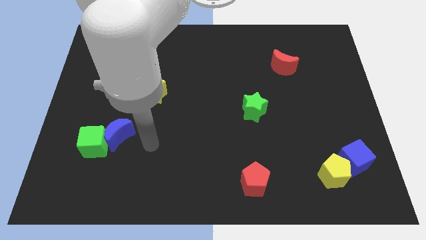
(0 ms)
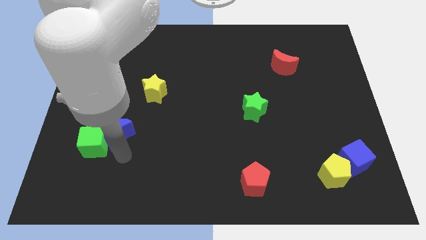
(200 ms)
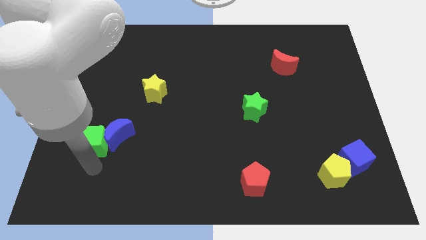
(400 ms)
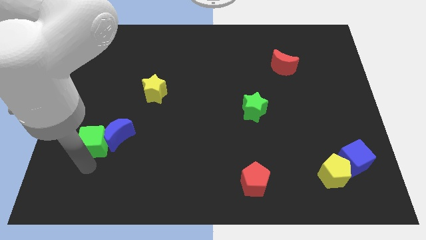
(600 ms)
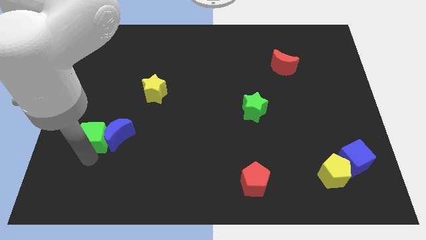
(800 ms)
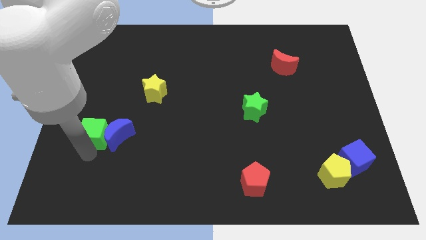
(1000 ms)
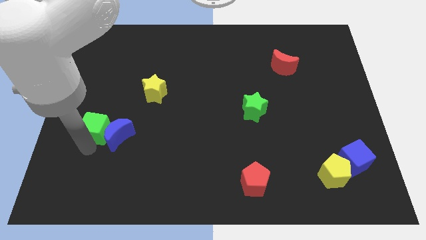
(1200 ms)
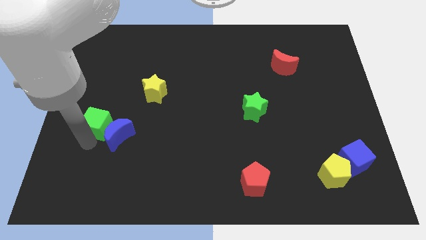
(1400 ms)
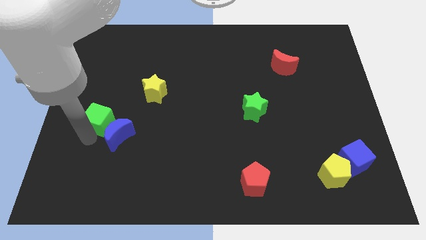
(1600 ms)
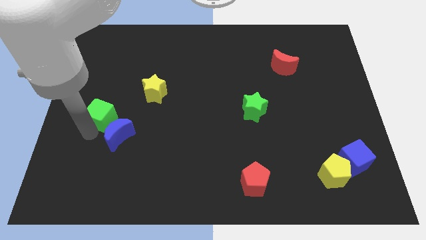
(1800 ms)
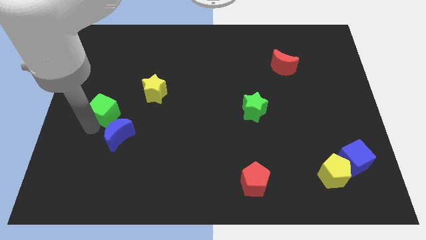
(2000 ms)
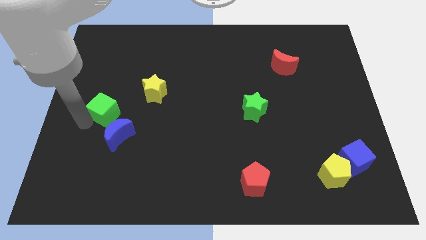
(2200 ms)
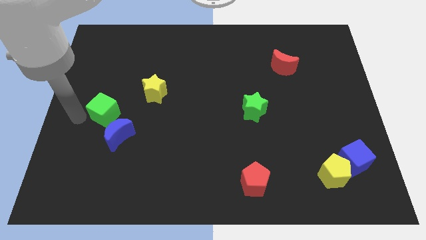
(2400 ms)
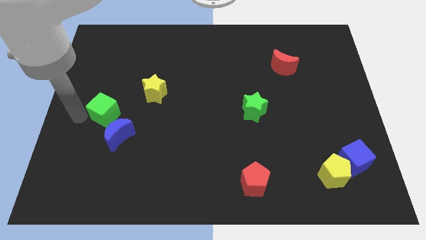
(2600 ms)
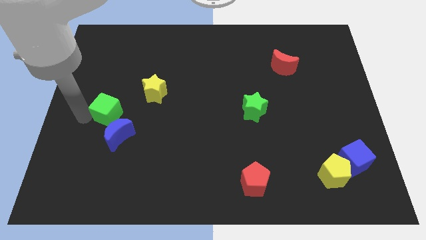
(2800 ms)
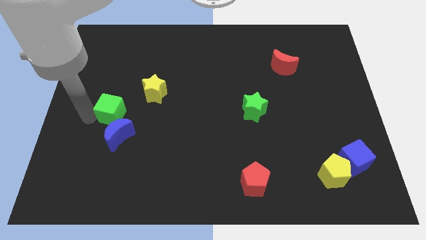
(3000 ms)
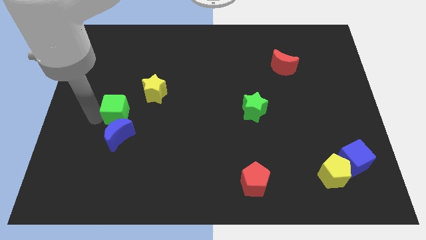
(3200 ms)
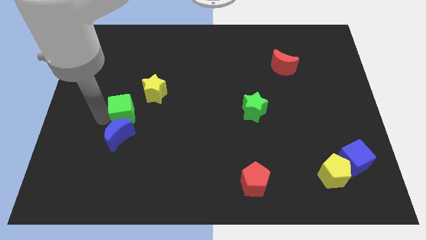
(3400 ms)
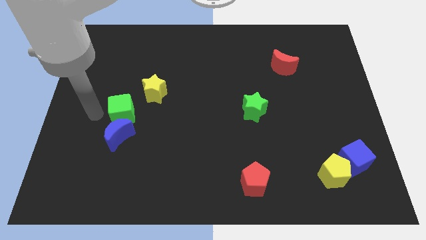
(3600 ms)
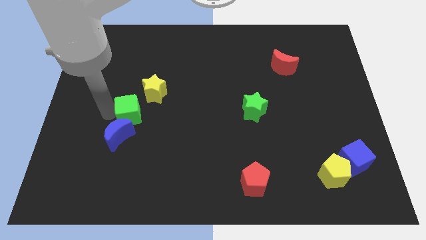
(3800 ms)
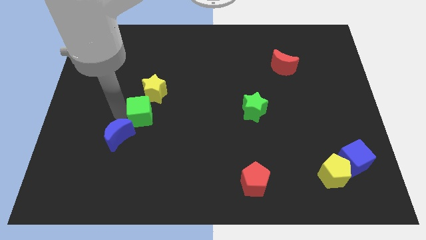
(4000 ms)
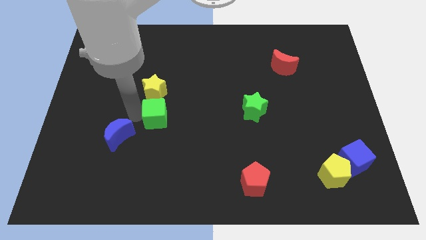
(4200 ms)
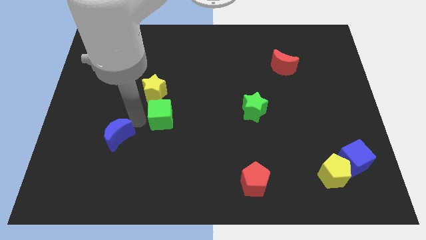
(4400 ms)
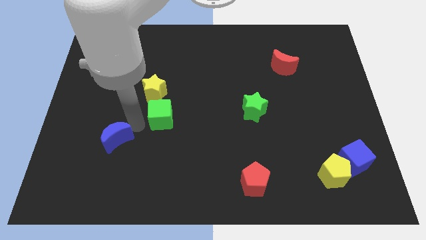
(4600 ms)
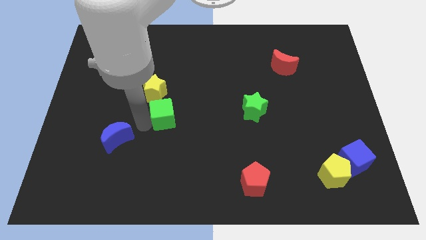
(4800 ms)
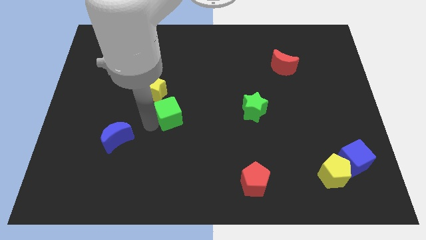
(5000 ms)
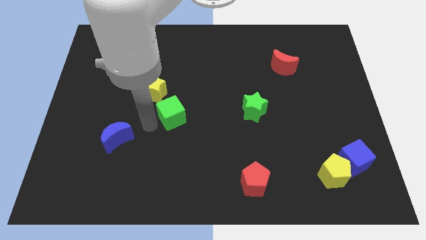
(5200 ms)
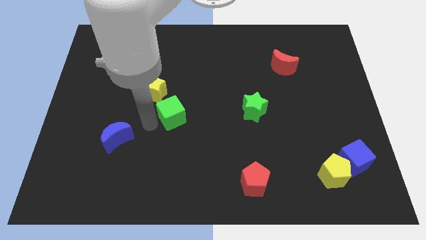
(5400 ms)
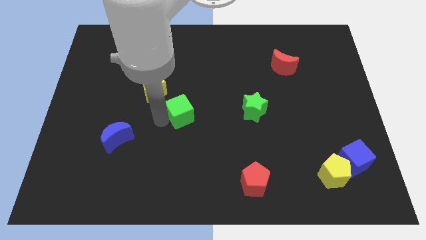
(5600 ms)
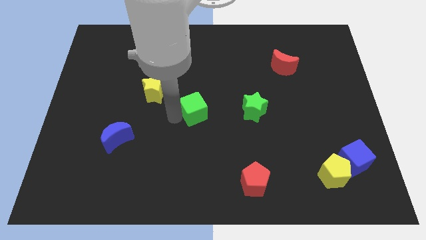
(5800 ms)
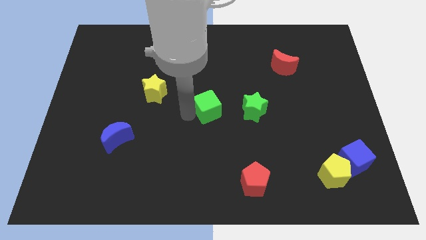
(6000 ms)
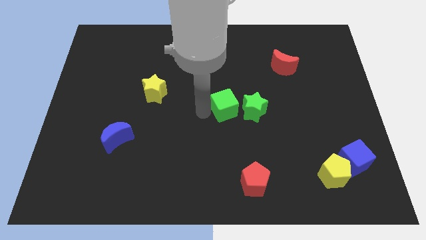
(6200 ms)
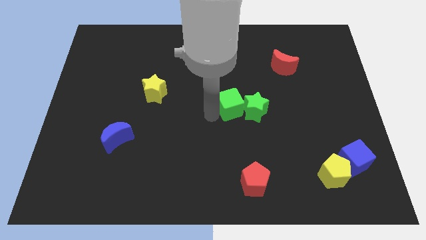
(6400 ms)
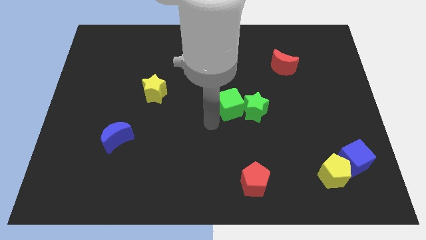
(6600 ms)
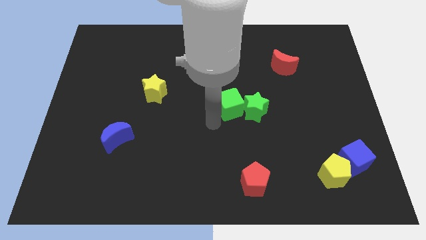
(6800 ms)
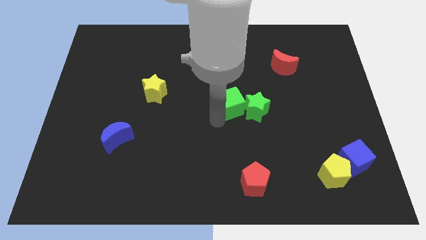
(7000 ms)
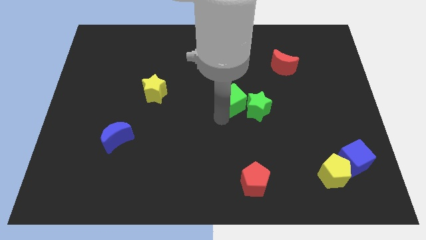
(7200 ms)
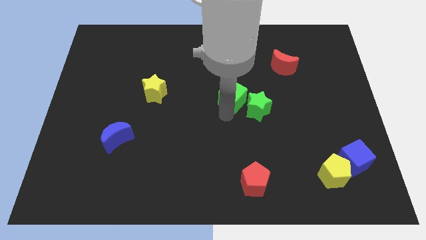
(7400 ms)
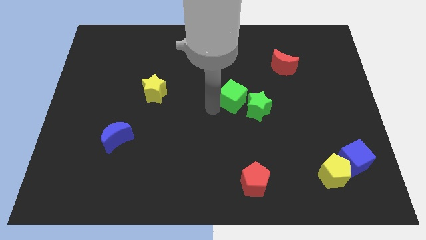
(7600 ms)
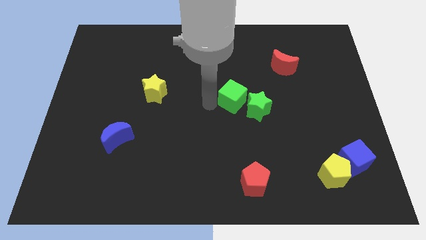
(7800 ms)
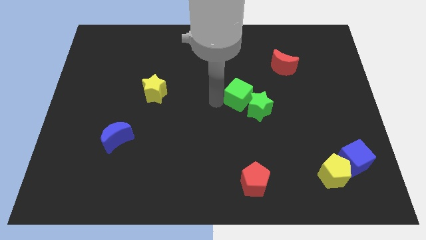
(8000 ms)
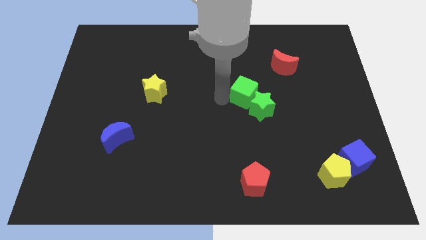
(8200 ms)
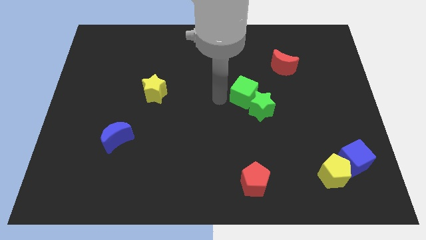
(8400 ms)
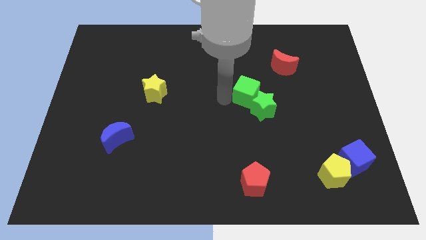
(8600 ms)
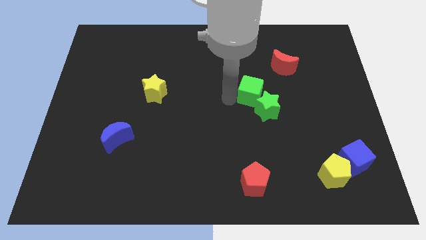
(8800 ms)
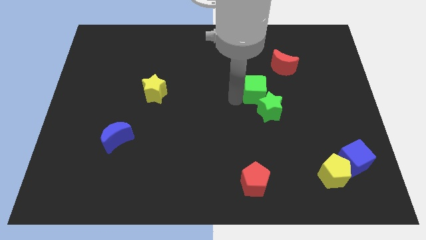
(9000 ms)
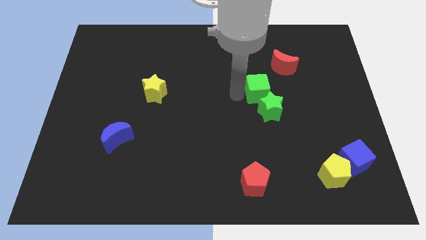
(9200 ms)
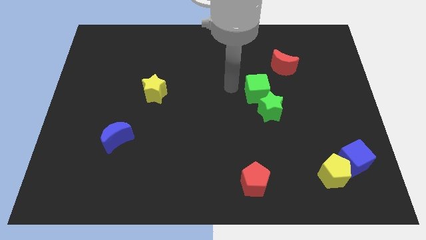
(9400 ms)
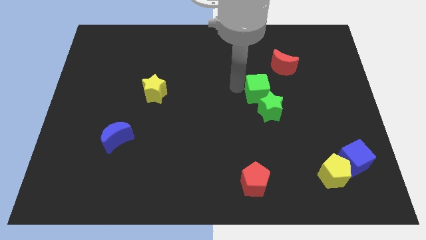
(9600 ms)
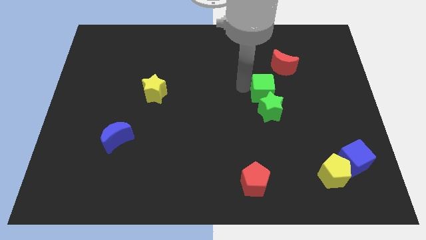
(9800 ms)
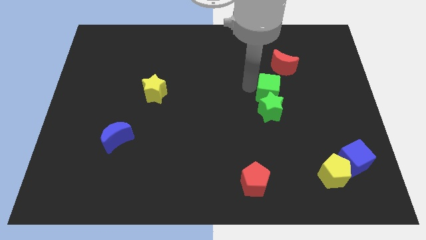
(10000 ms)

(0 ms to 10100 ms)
put the green cube to the bottom of the red moon

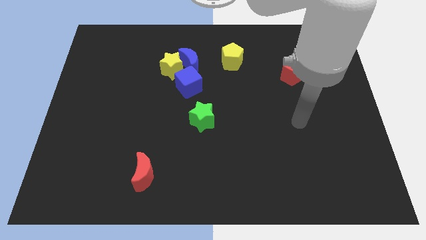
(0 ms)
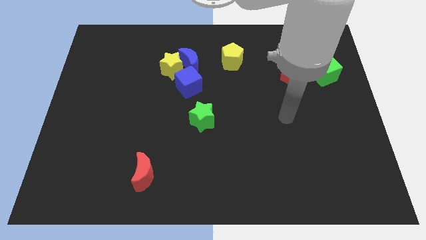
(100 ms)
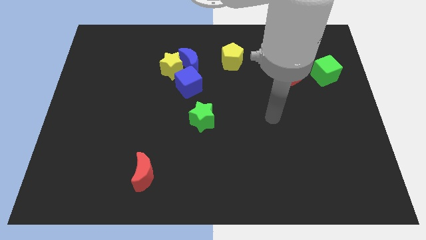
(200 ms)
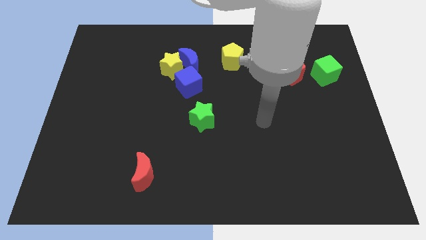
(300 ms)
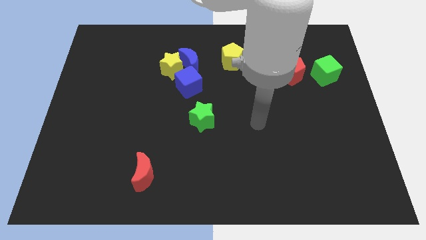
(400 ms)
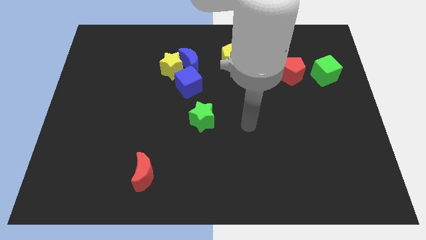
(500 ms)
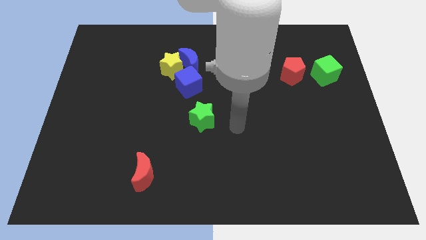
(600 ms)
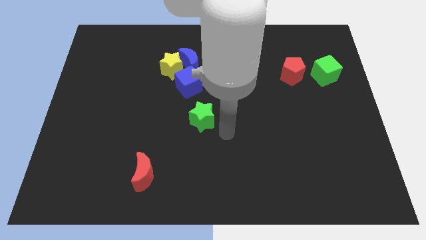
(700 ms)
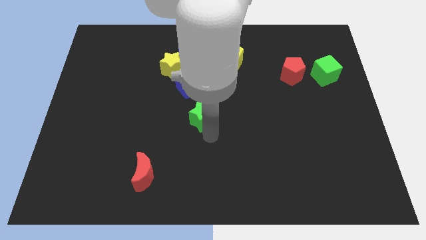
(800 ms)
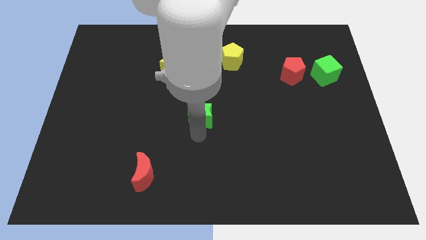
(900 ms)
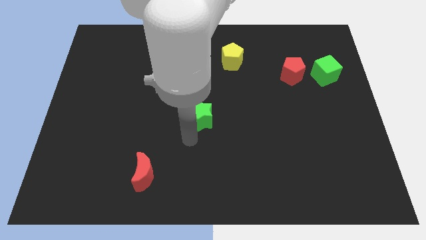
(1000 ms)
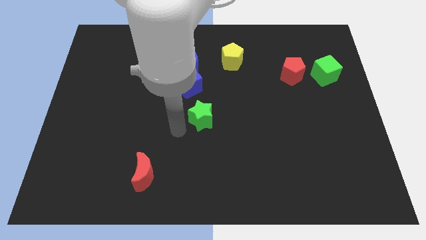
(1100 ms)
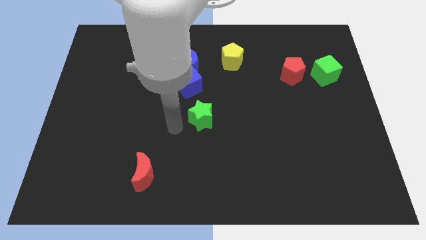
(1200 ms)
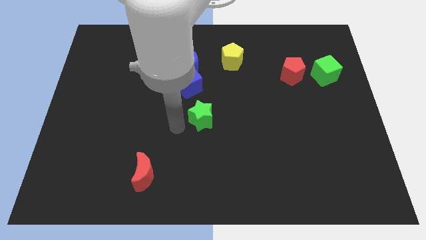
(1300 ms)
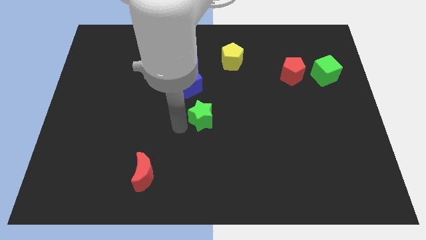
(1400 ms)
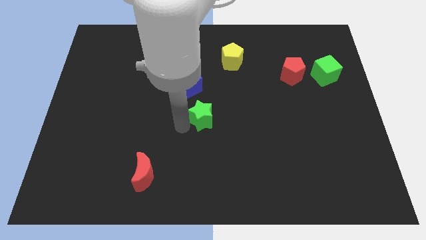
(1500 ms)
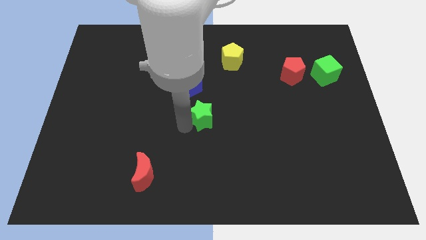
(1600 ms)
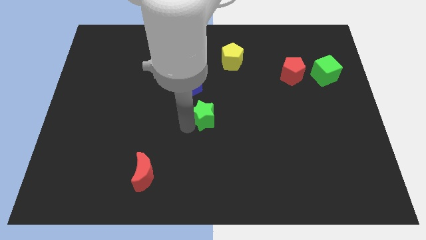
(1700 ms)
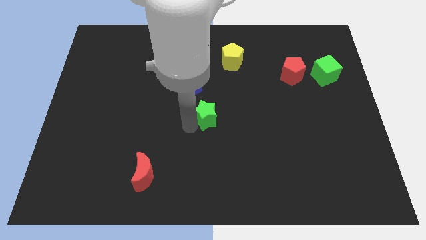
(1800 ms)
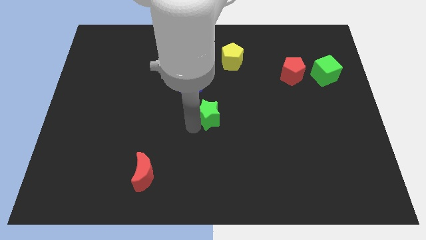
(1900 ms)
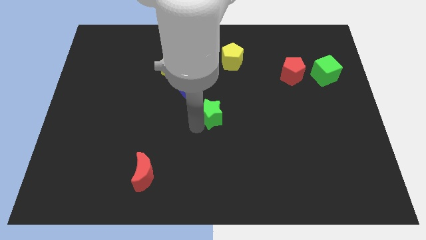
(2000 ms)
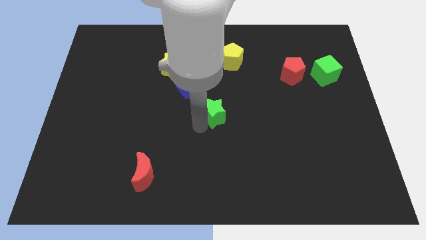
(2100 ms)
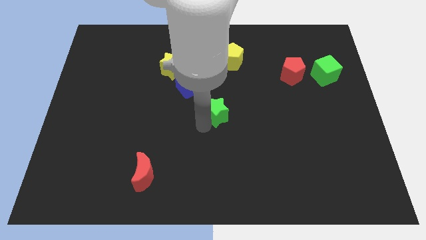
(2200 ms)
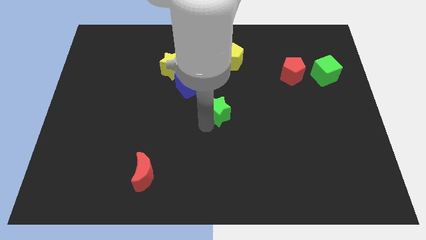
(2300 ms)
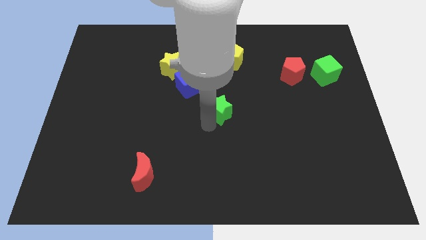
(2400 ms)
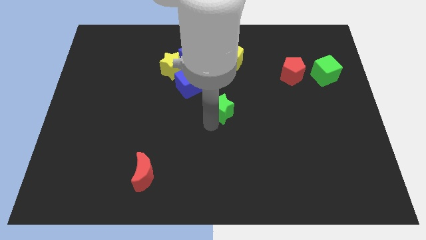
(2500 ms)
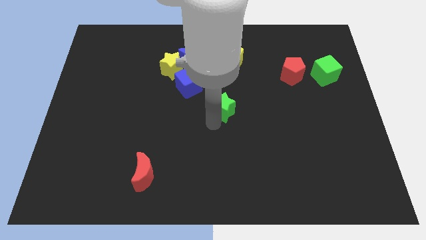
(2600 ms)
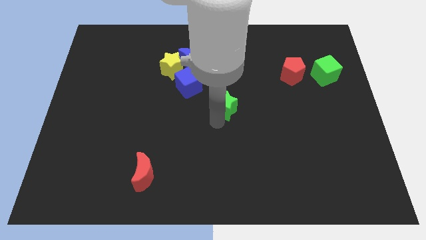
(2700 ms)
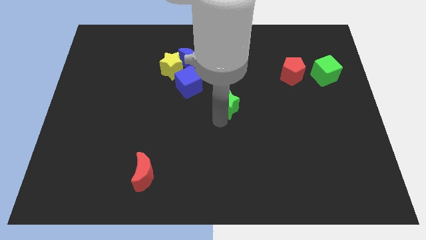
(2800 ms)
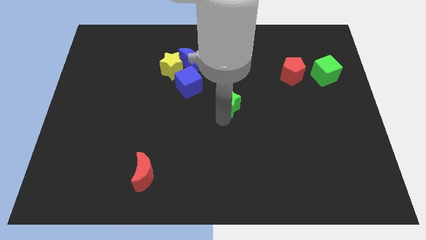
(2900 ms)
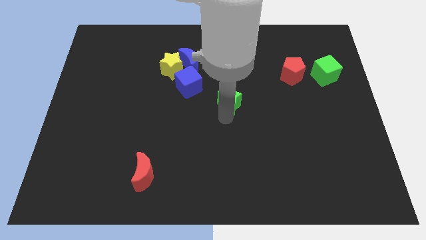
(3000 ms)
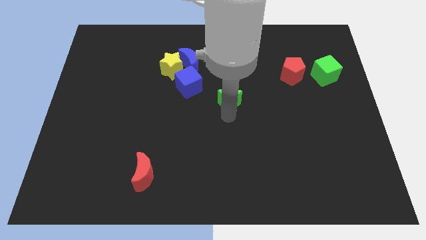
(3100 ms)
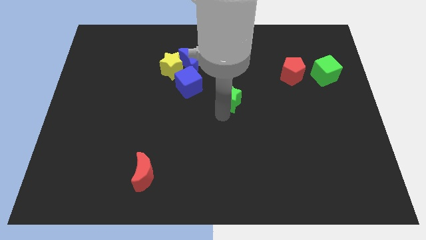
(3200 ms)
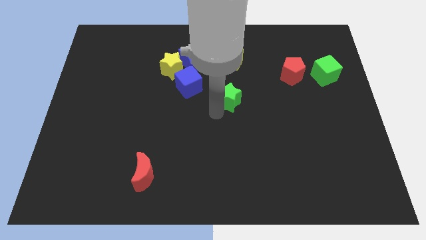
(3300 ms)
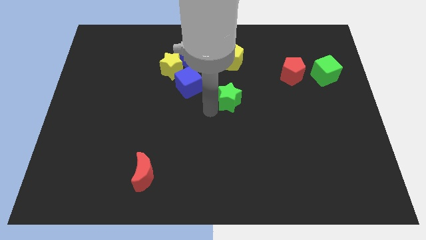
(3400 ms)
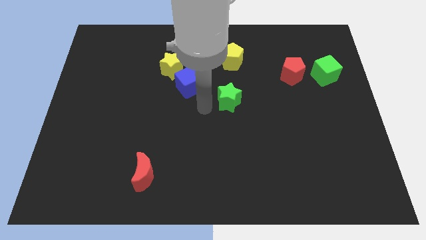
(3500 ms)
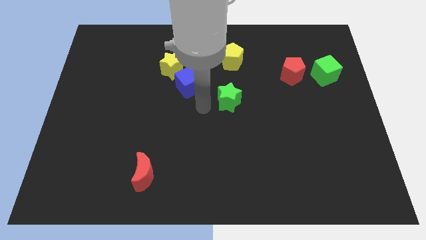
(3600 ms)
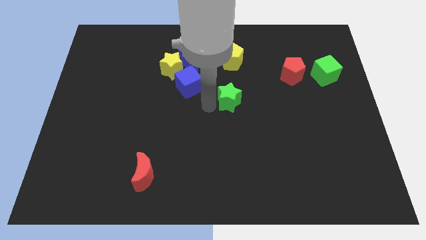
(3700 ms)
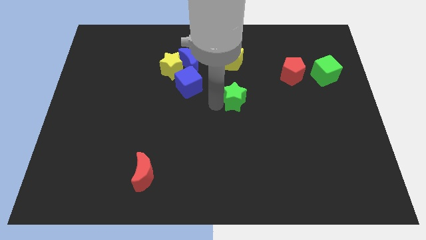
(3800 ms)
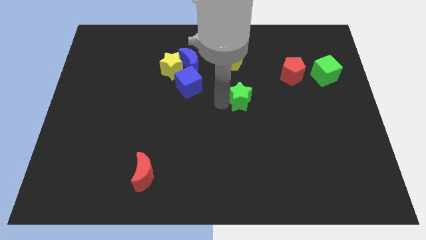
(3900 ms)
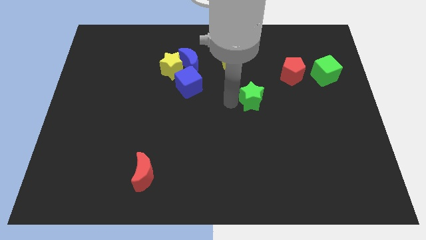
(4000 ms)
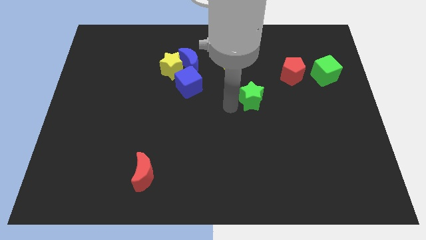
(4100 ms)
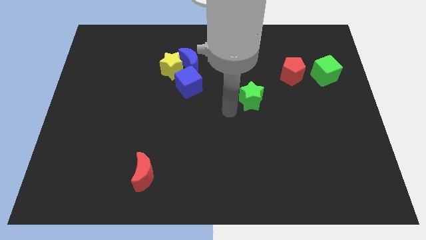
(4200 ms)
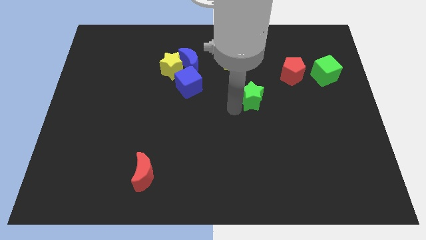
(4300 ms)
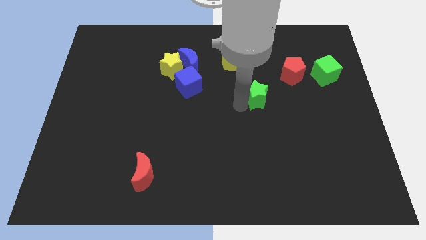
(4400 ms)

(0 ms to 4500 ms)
put the green star to the bottom left side of the red pentagon
